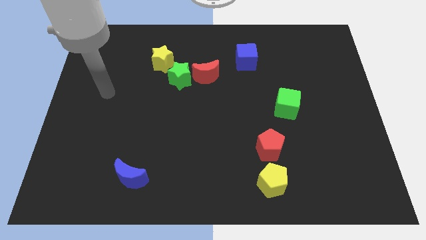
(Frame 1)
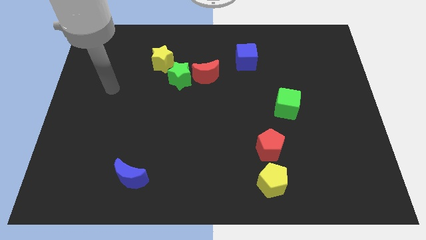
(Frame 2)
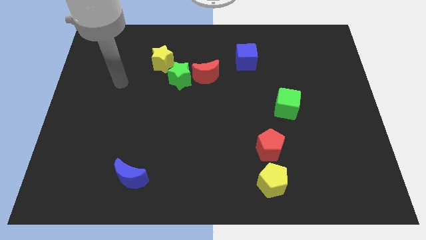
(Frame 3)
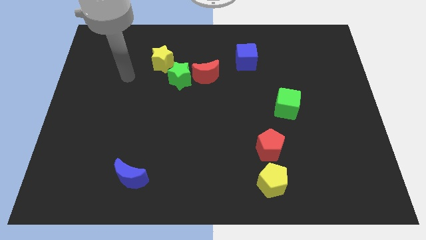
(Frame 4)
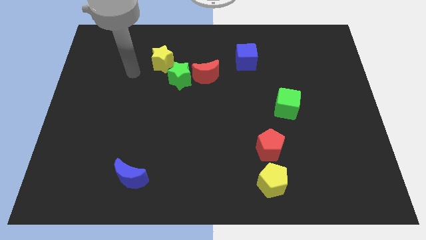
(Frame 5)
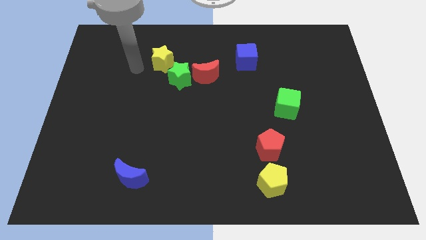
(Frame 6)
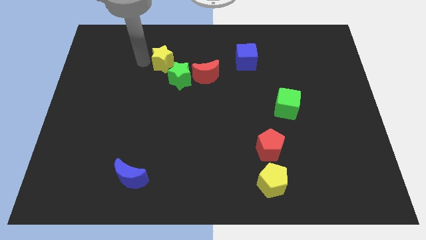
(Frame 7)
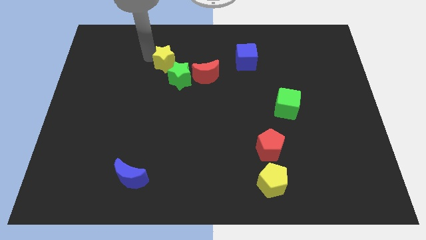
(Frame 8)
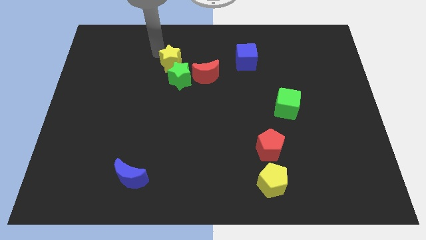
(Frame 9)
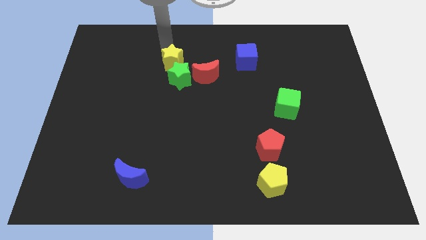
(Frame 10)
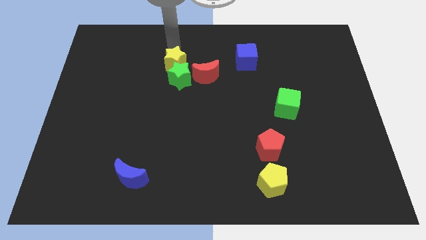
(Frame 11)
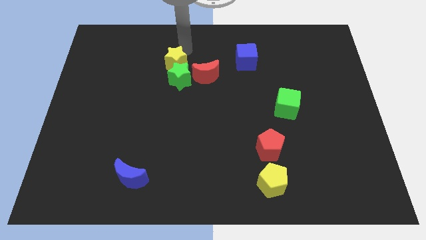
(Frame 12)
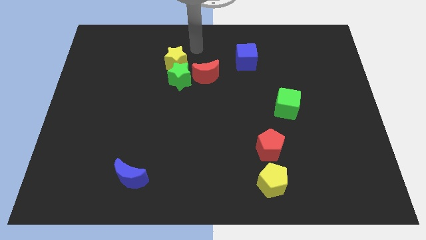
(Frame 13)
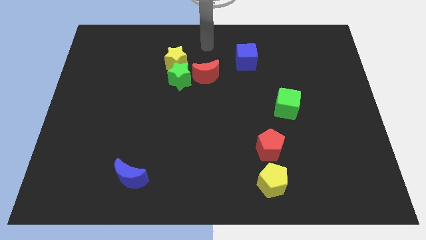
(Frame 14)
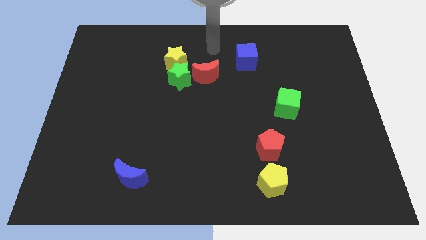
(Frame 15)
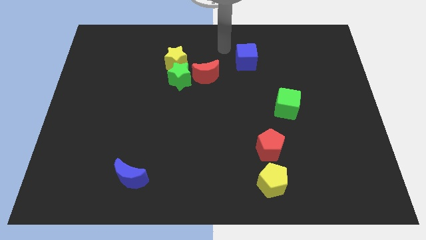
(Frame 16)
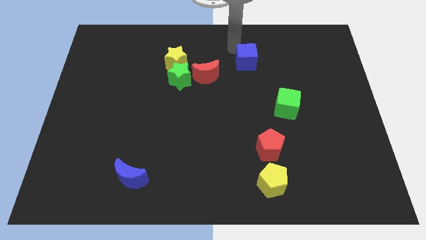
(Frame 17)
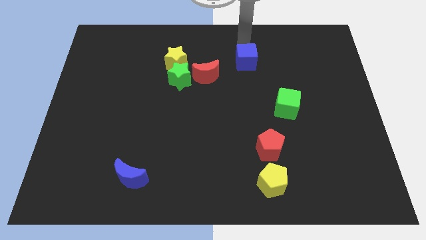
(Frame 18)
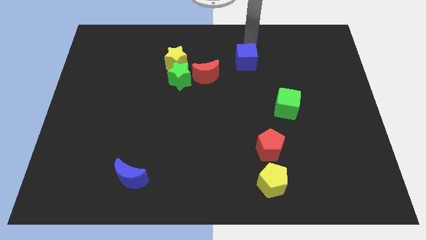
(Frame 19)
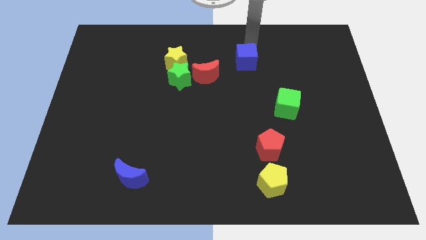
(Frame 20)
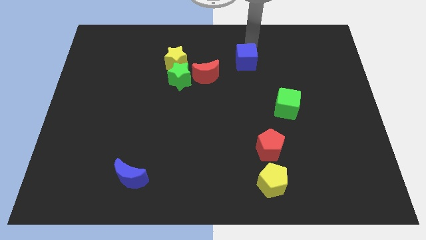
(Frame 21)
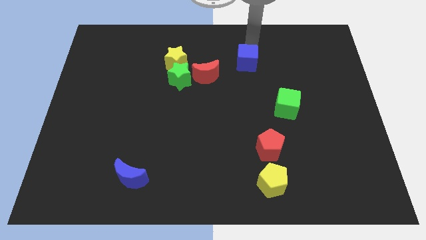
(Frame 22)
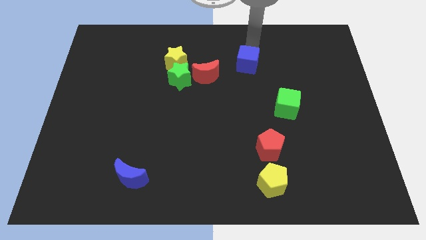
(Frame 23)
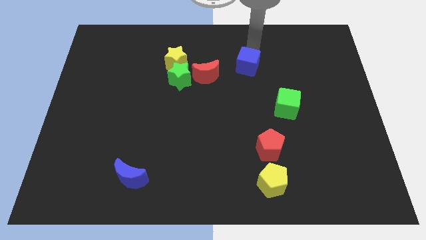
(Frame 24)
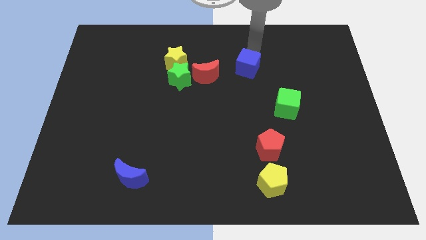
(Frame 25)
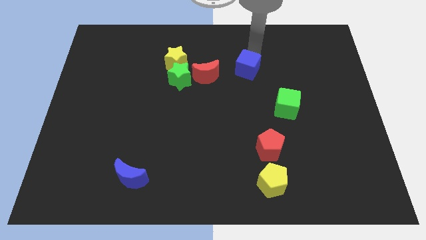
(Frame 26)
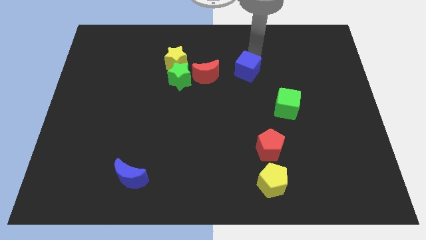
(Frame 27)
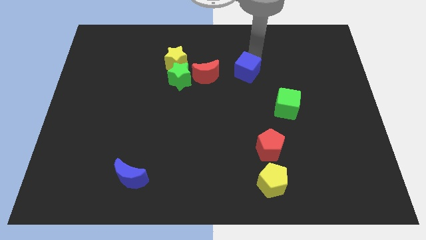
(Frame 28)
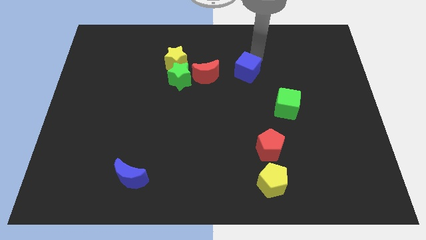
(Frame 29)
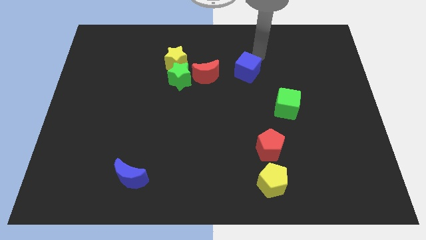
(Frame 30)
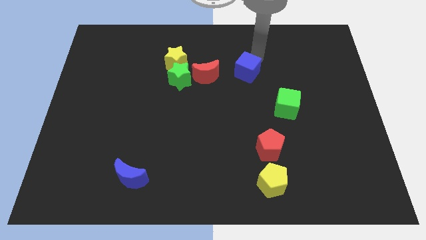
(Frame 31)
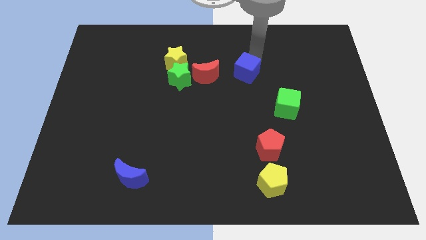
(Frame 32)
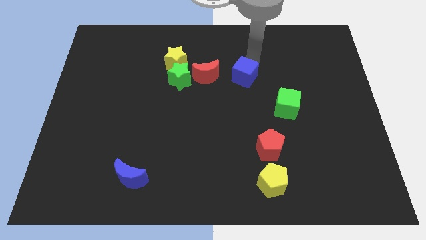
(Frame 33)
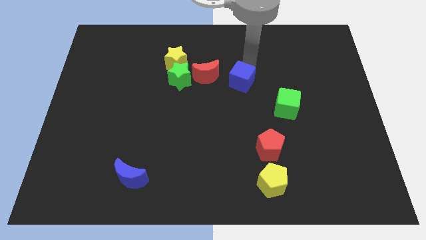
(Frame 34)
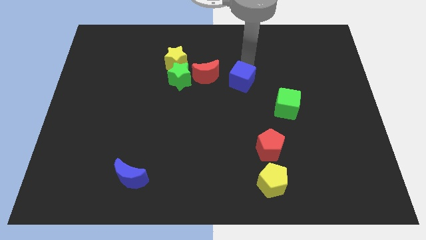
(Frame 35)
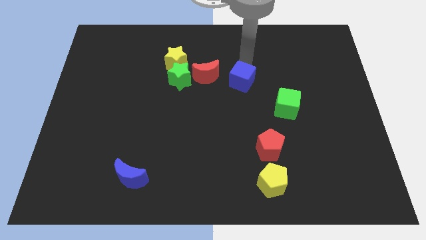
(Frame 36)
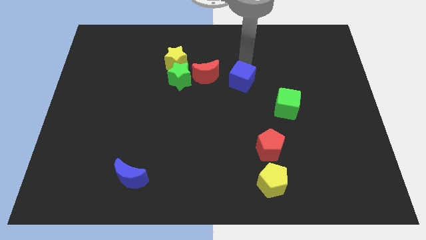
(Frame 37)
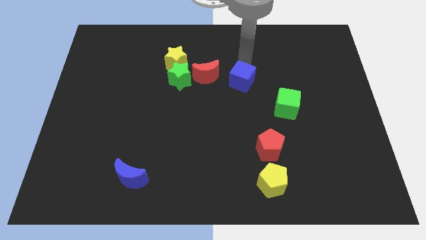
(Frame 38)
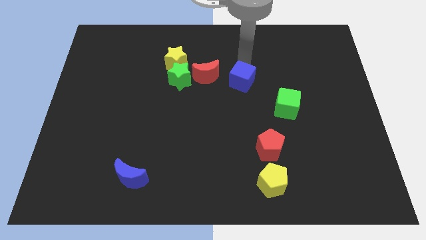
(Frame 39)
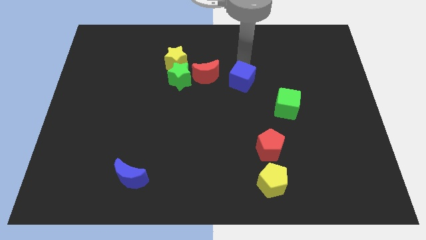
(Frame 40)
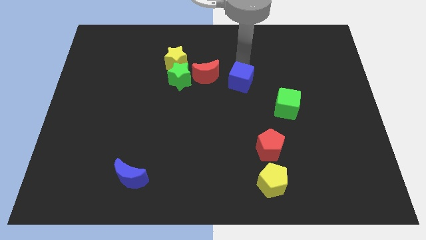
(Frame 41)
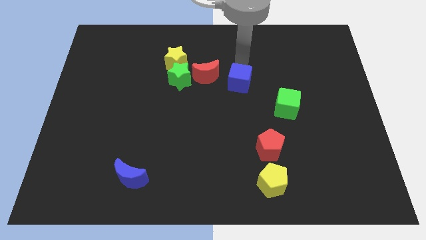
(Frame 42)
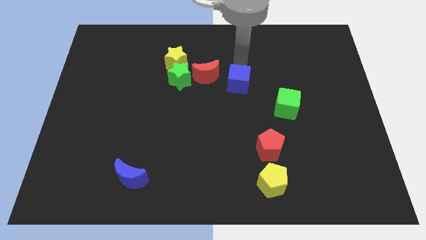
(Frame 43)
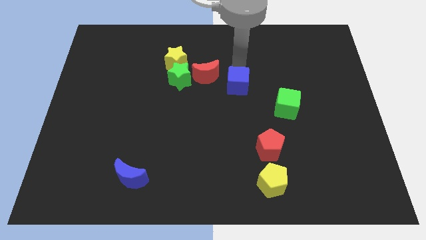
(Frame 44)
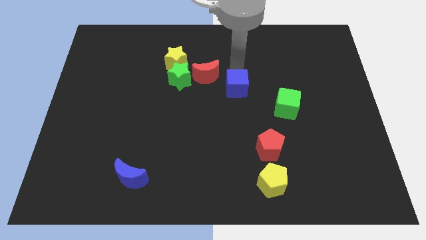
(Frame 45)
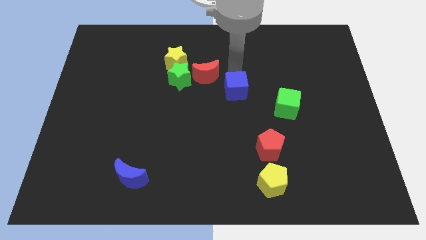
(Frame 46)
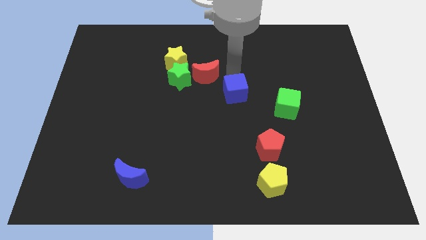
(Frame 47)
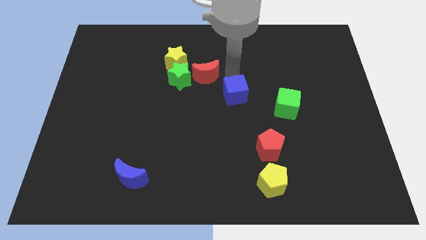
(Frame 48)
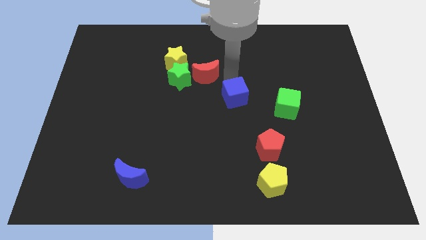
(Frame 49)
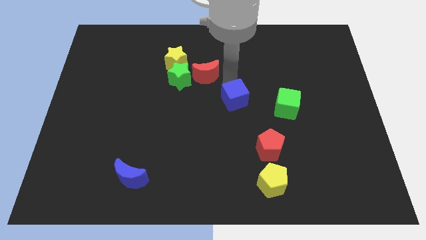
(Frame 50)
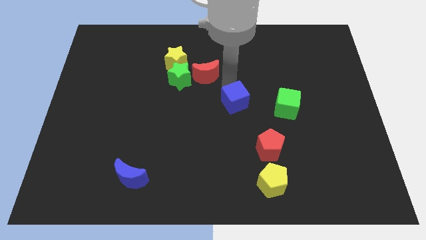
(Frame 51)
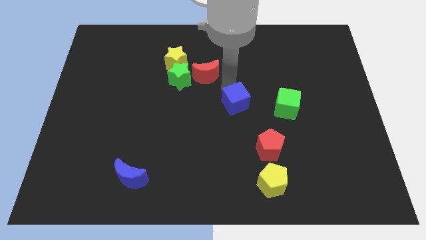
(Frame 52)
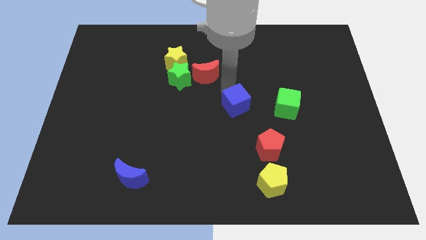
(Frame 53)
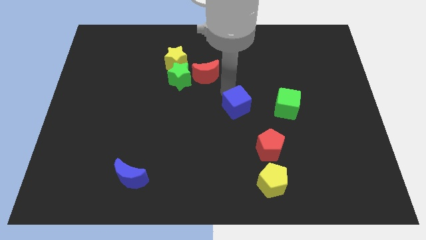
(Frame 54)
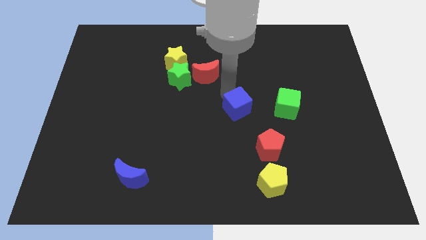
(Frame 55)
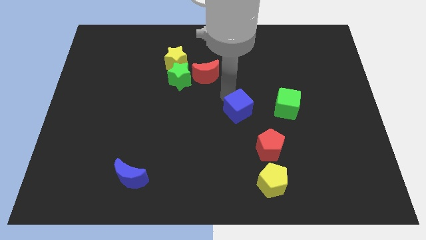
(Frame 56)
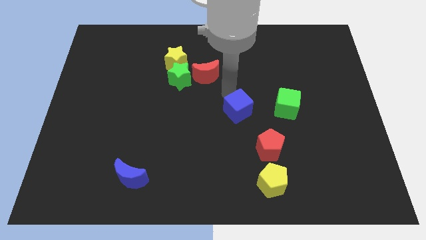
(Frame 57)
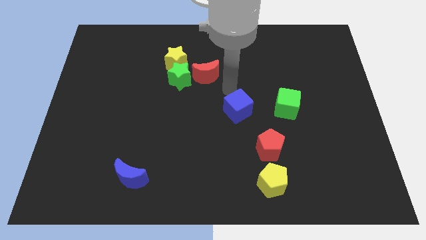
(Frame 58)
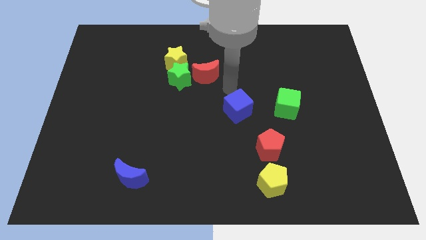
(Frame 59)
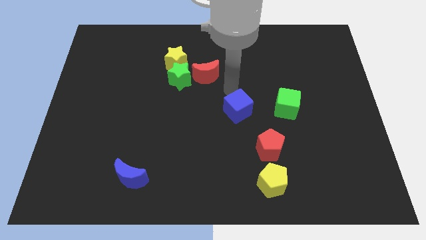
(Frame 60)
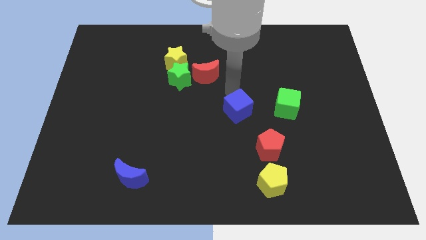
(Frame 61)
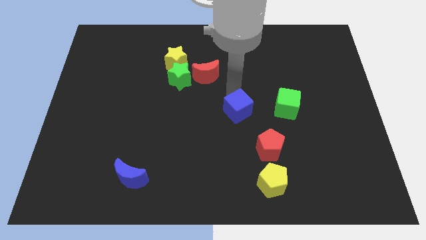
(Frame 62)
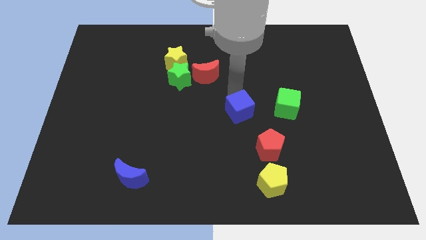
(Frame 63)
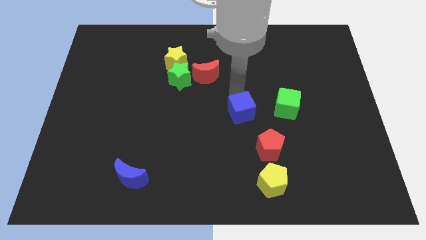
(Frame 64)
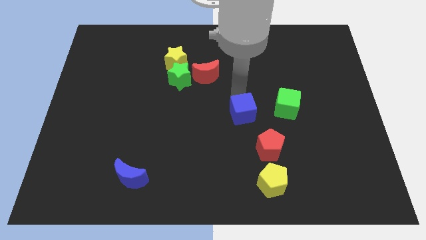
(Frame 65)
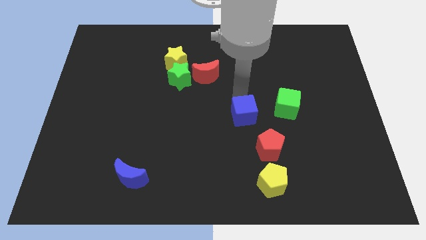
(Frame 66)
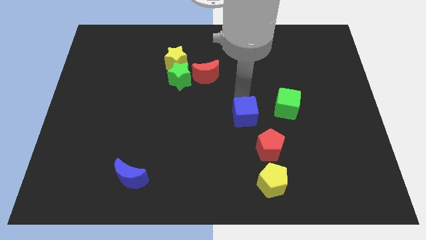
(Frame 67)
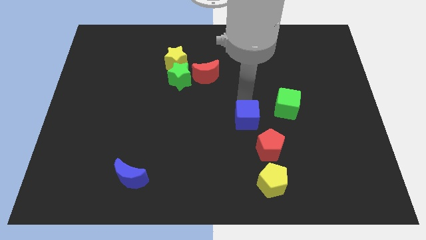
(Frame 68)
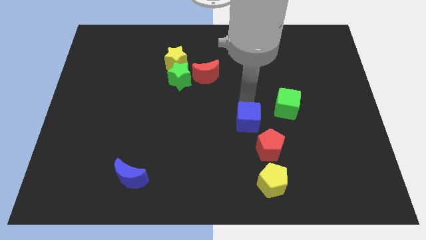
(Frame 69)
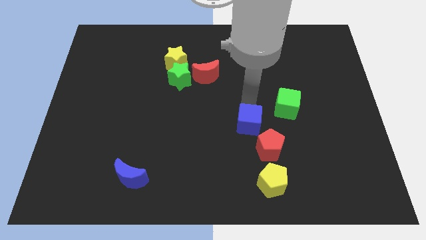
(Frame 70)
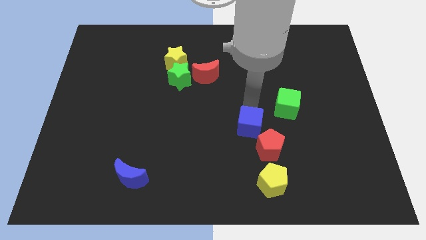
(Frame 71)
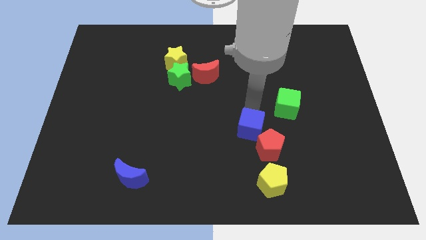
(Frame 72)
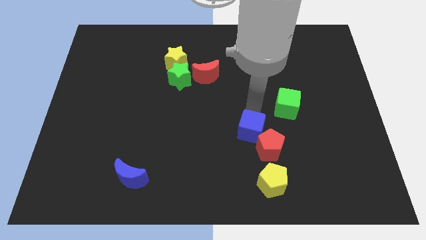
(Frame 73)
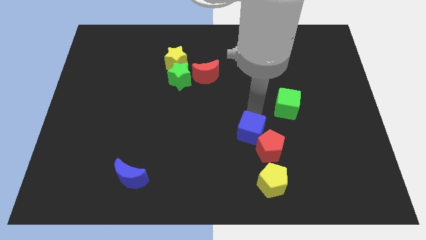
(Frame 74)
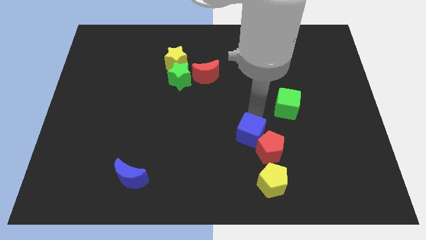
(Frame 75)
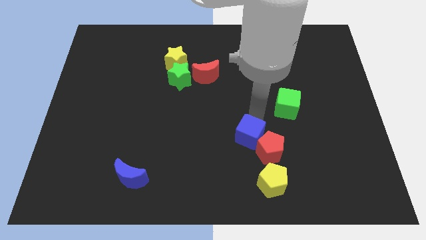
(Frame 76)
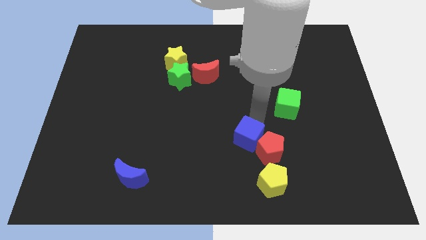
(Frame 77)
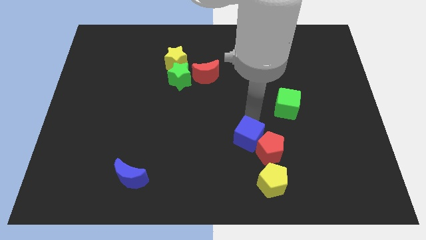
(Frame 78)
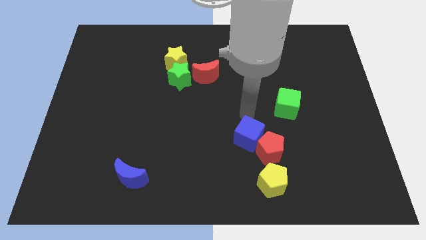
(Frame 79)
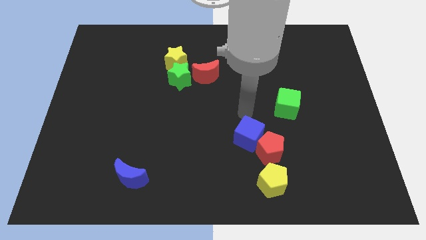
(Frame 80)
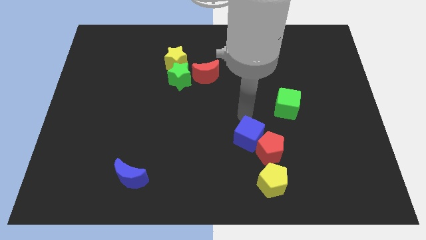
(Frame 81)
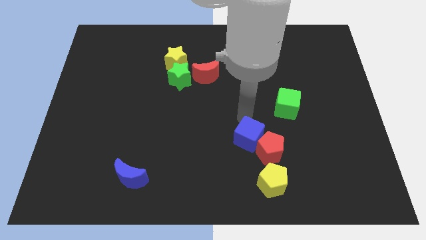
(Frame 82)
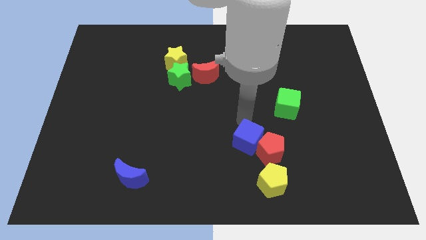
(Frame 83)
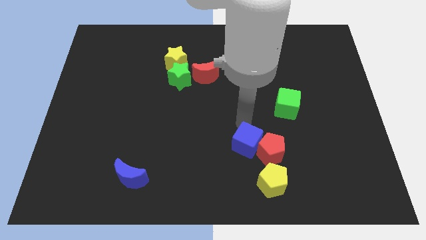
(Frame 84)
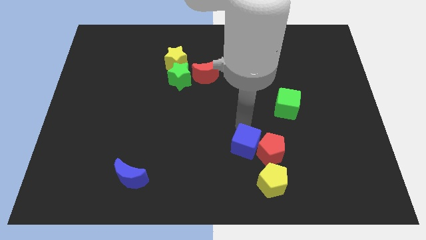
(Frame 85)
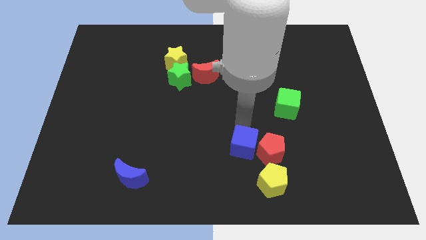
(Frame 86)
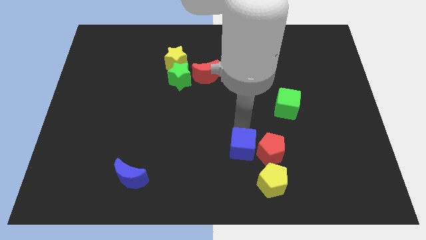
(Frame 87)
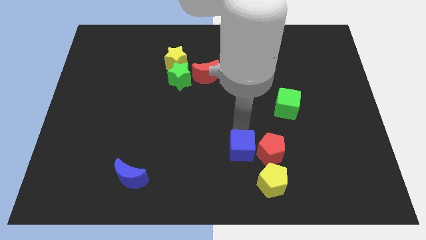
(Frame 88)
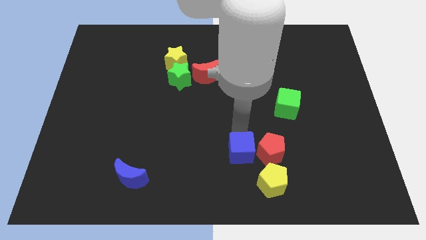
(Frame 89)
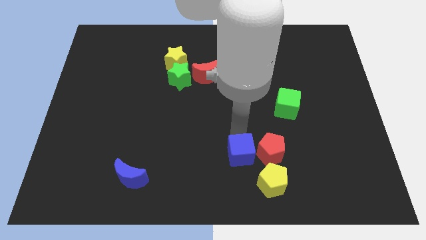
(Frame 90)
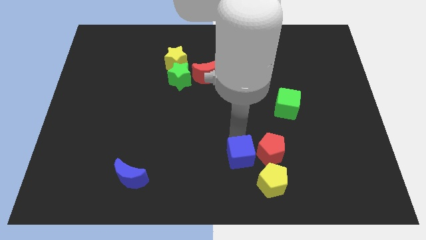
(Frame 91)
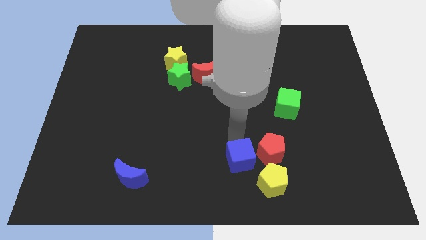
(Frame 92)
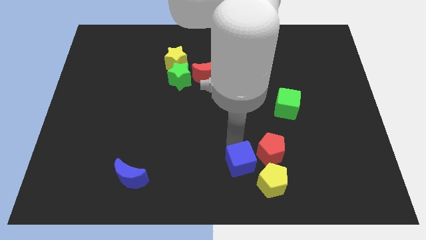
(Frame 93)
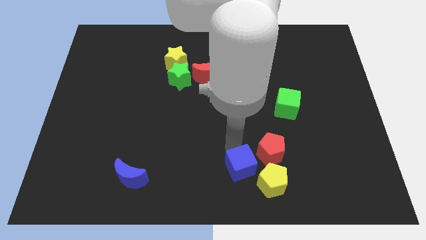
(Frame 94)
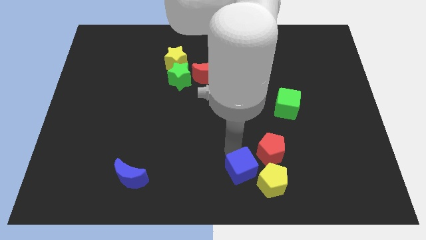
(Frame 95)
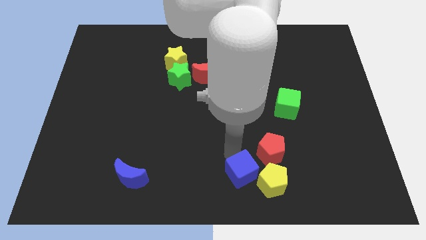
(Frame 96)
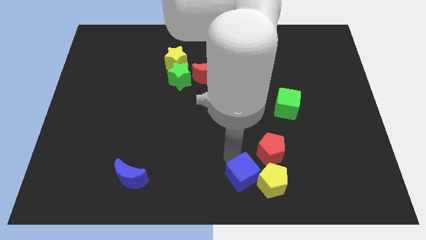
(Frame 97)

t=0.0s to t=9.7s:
slide the blue cube close to the yellow pentagon
